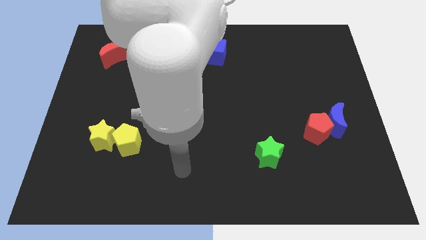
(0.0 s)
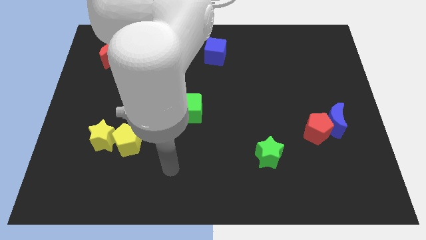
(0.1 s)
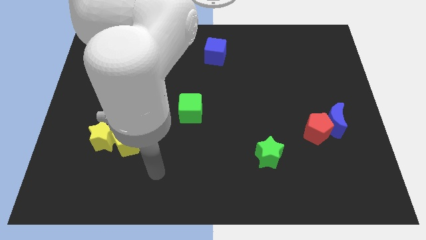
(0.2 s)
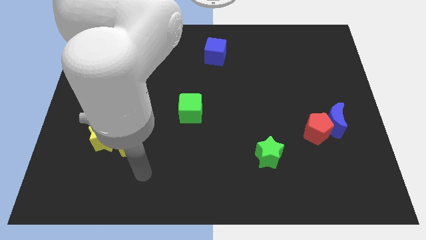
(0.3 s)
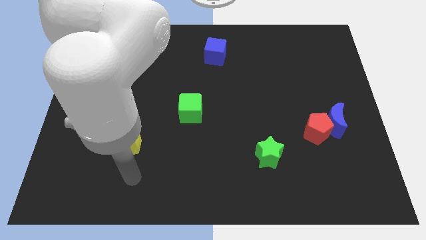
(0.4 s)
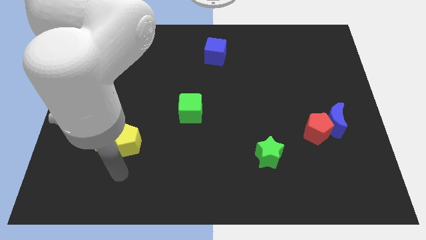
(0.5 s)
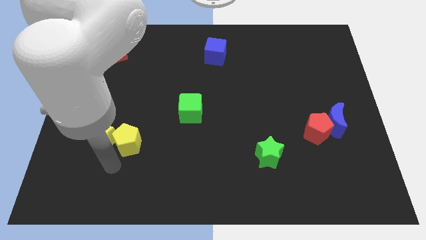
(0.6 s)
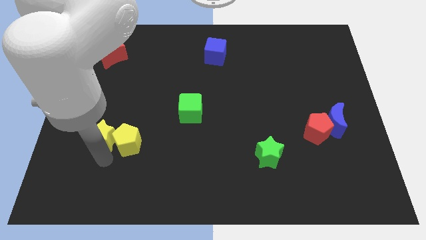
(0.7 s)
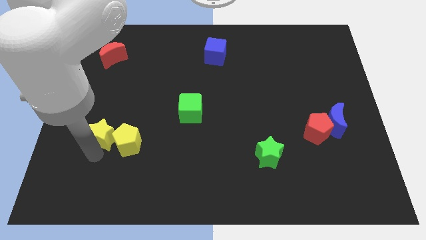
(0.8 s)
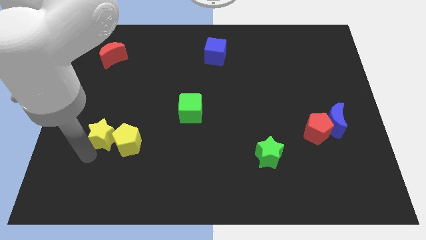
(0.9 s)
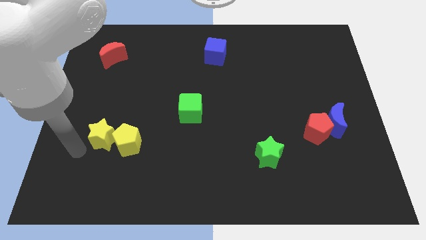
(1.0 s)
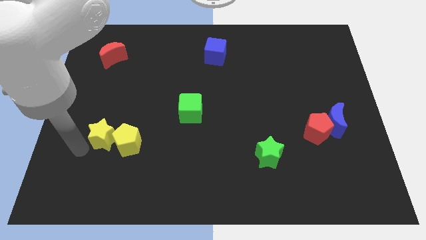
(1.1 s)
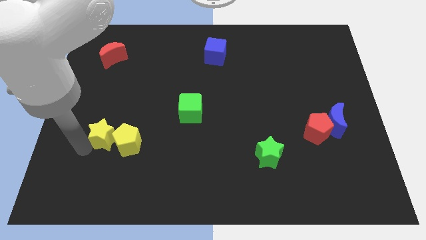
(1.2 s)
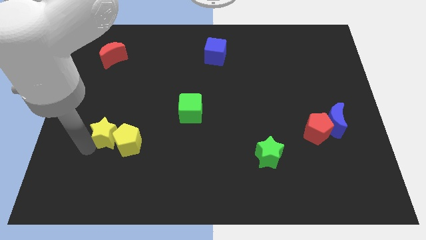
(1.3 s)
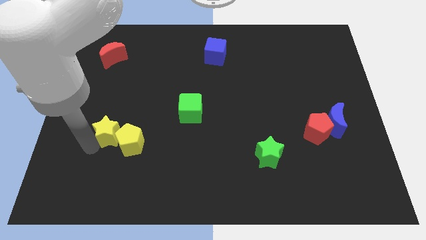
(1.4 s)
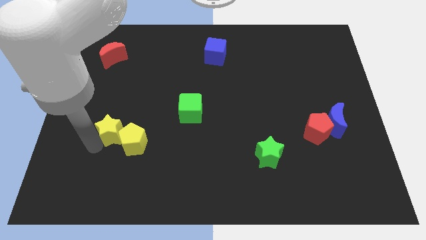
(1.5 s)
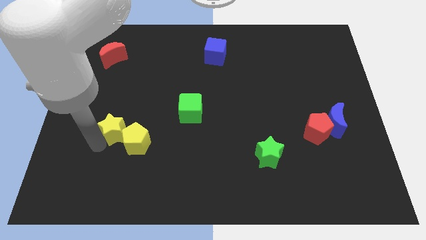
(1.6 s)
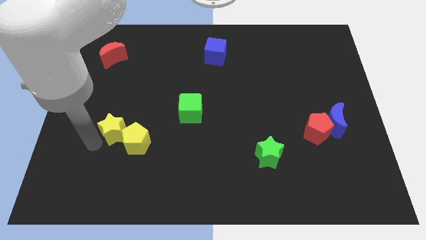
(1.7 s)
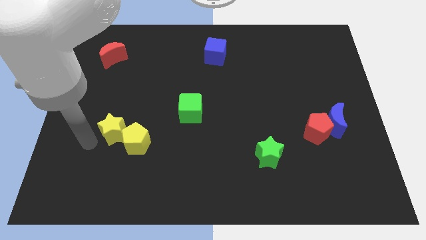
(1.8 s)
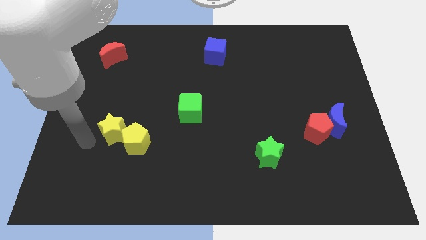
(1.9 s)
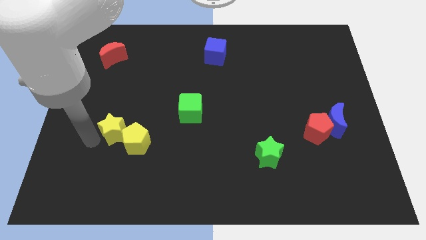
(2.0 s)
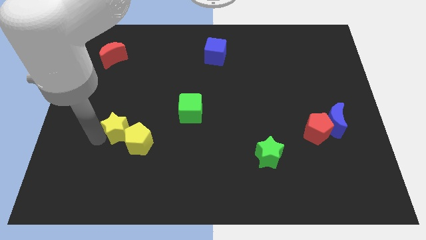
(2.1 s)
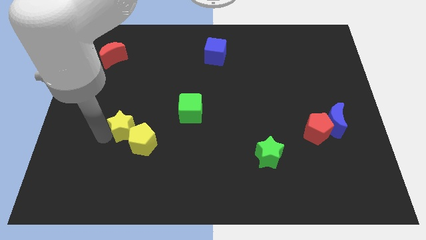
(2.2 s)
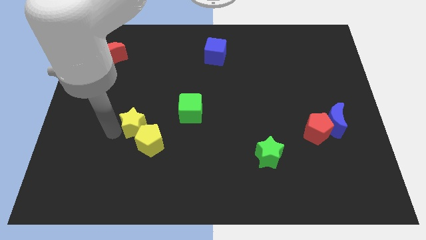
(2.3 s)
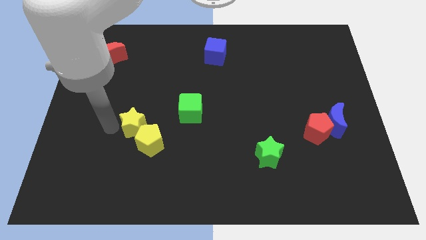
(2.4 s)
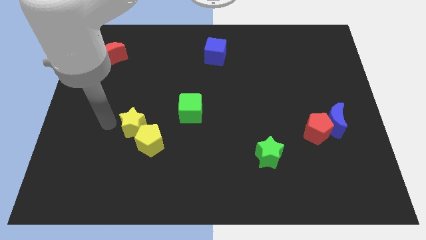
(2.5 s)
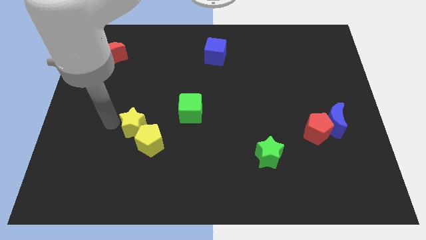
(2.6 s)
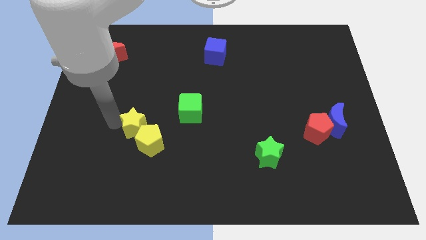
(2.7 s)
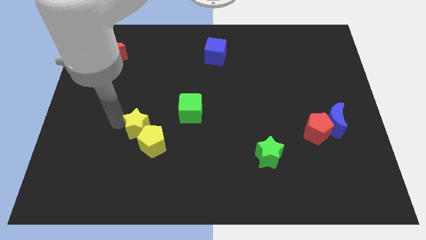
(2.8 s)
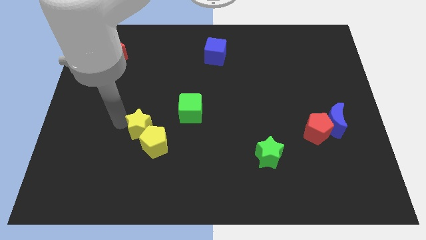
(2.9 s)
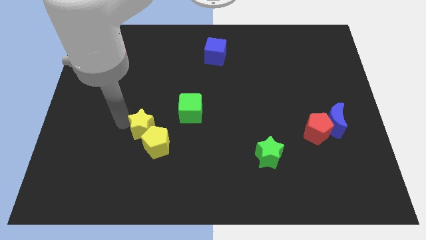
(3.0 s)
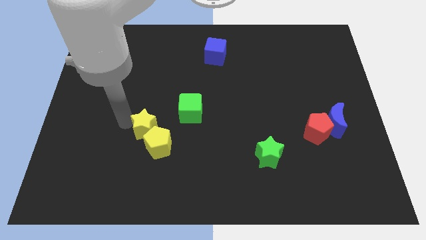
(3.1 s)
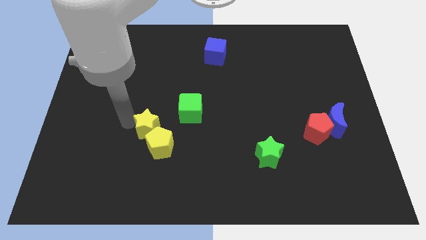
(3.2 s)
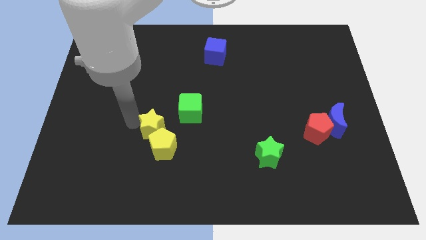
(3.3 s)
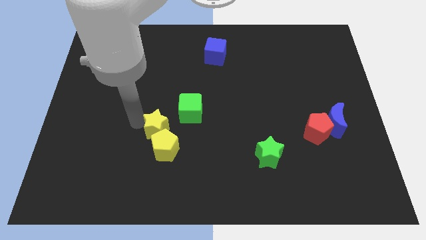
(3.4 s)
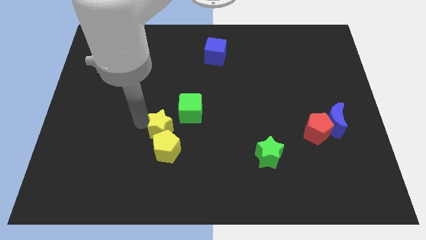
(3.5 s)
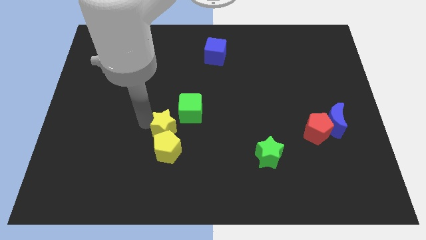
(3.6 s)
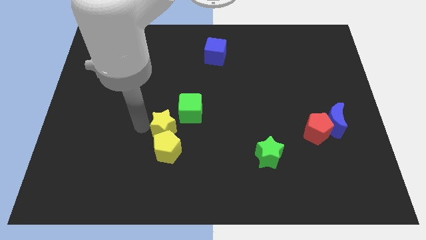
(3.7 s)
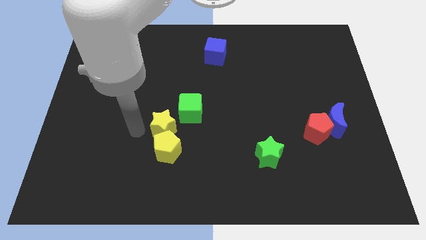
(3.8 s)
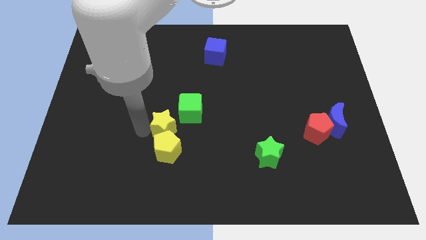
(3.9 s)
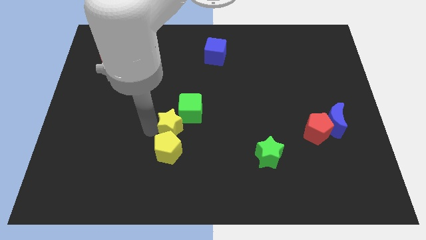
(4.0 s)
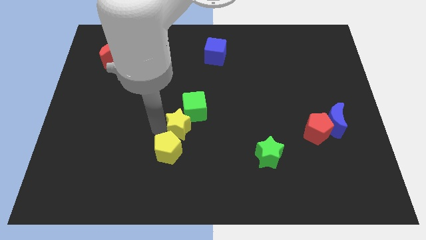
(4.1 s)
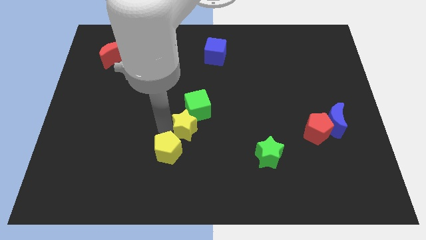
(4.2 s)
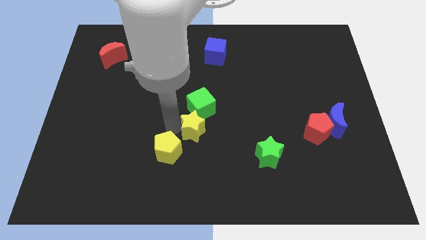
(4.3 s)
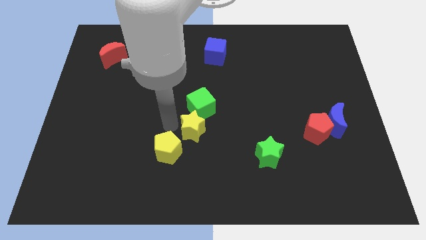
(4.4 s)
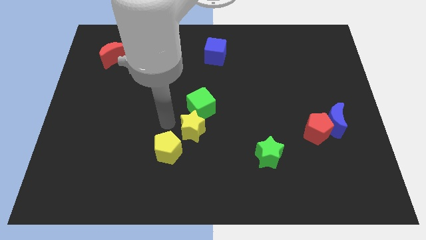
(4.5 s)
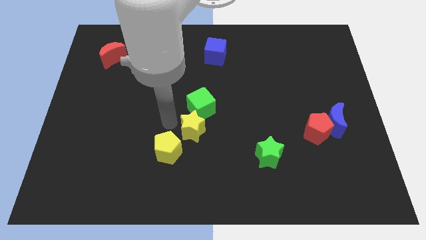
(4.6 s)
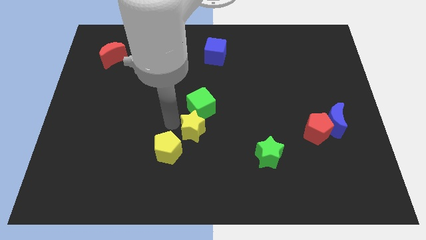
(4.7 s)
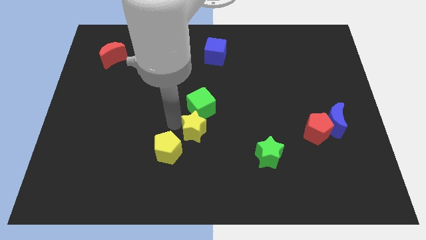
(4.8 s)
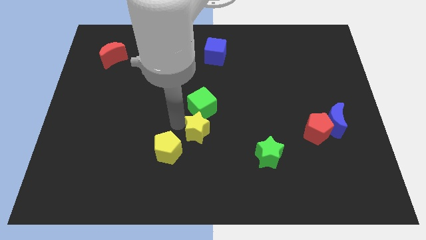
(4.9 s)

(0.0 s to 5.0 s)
move the yellow star right

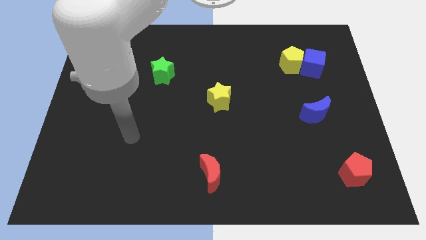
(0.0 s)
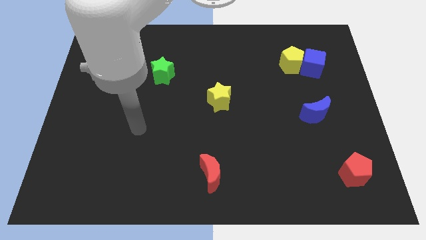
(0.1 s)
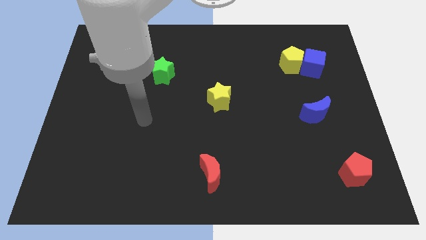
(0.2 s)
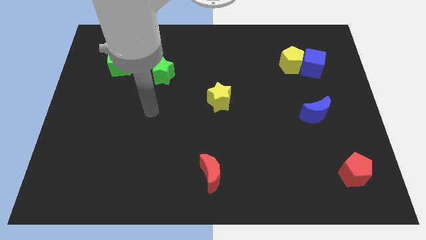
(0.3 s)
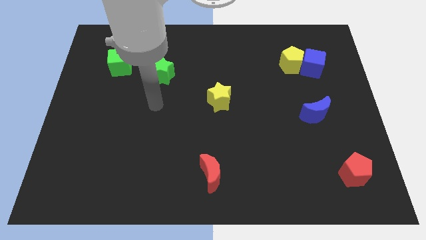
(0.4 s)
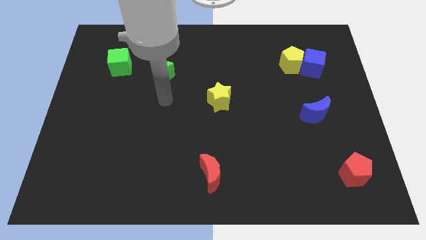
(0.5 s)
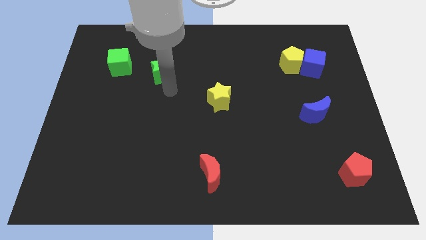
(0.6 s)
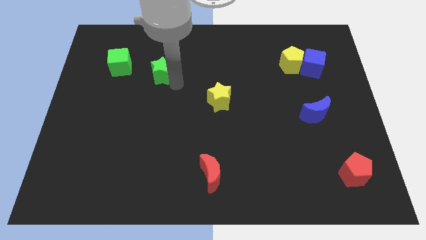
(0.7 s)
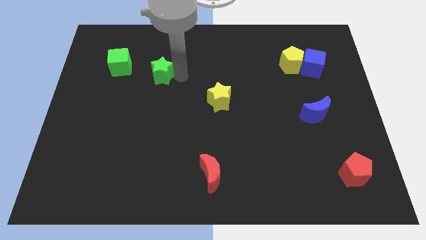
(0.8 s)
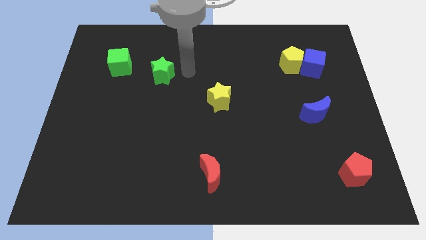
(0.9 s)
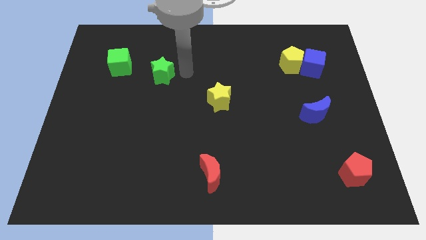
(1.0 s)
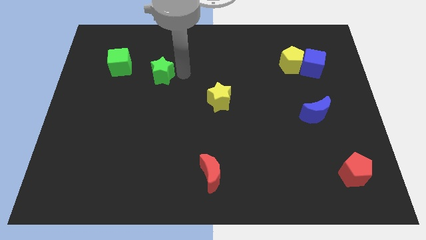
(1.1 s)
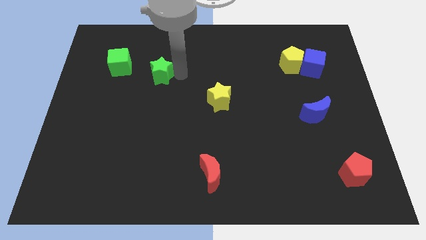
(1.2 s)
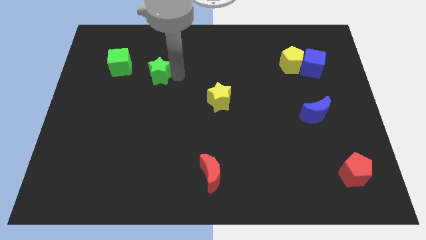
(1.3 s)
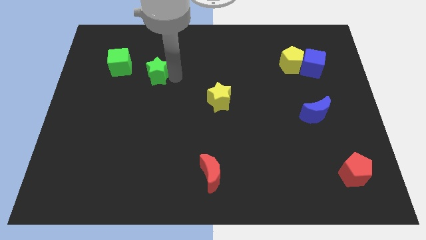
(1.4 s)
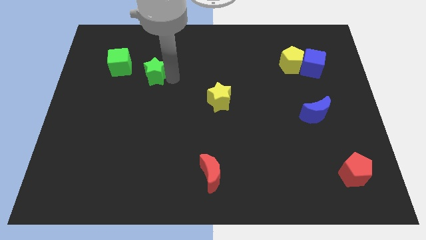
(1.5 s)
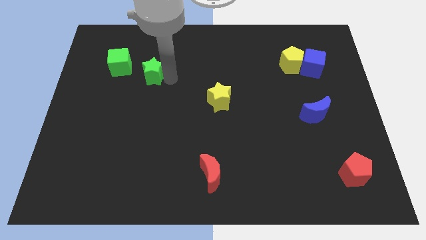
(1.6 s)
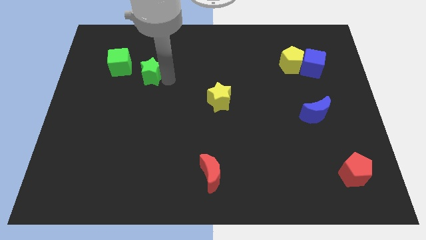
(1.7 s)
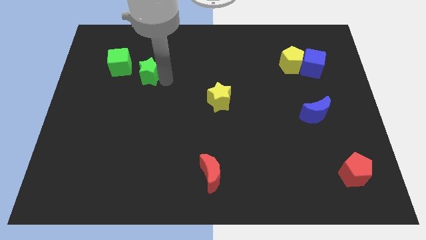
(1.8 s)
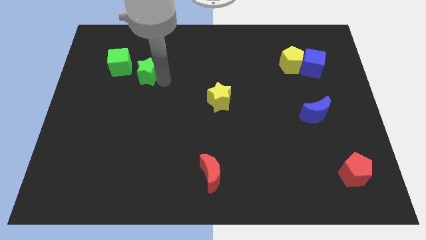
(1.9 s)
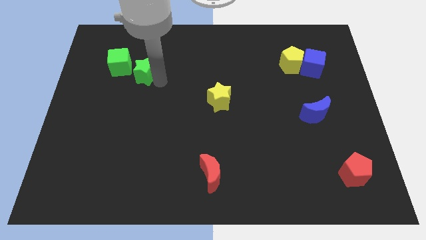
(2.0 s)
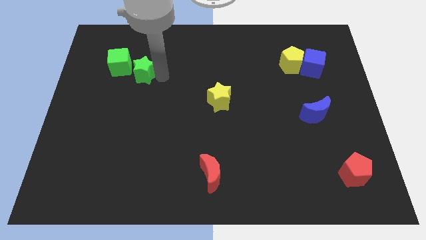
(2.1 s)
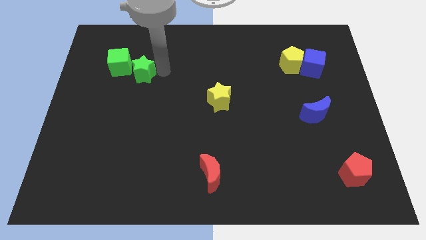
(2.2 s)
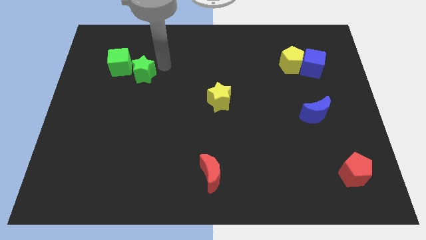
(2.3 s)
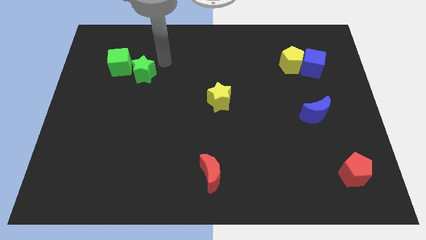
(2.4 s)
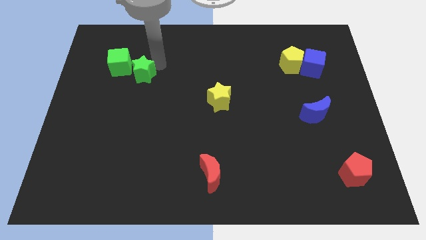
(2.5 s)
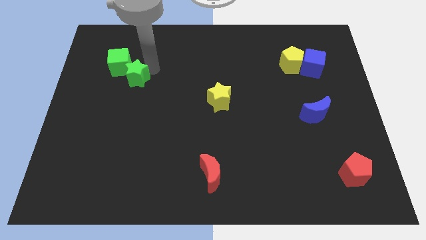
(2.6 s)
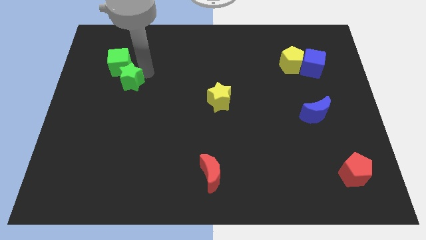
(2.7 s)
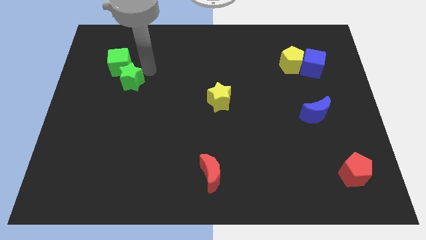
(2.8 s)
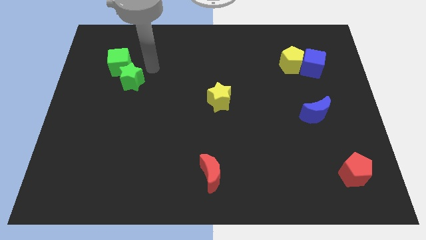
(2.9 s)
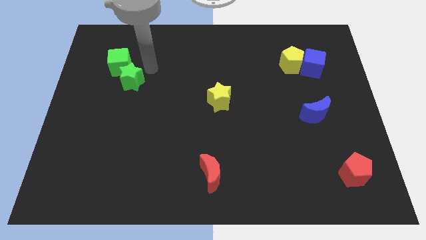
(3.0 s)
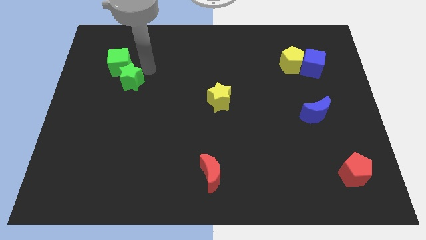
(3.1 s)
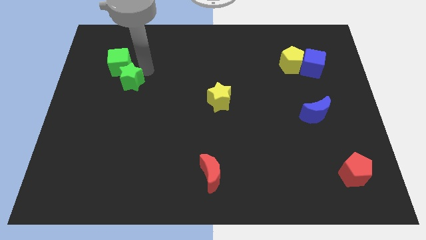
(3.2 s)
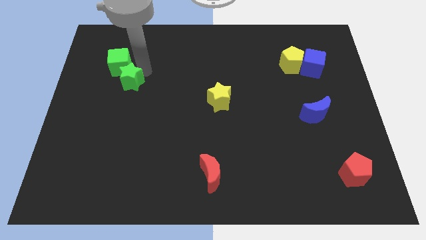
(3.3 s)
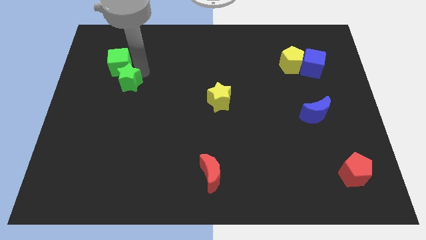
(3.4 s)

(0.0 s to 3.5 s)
slide the green star a little downwards and to the left diagonally

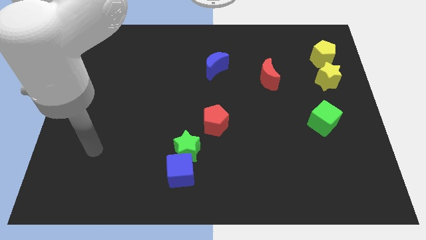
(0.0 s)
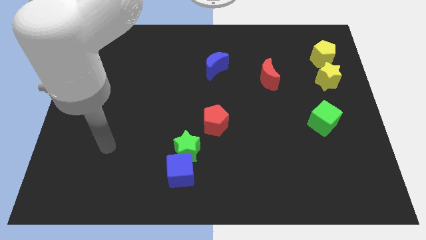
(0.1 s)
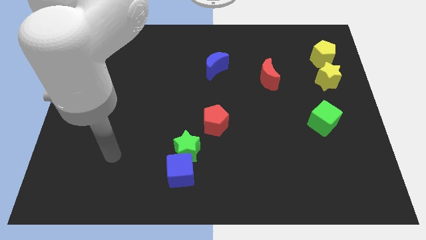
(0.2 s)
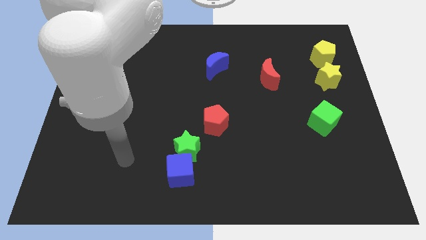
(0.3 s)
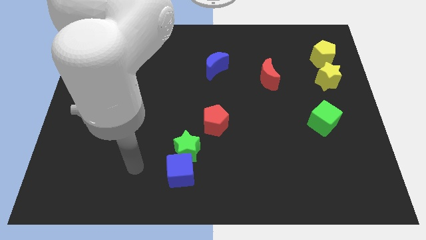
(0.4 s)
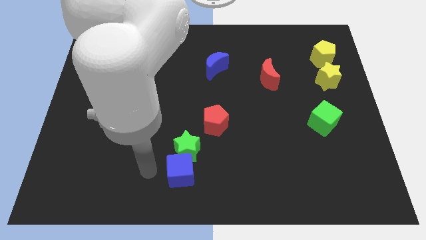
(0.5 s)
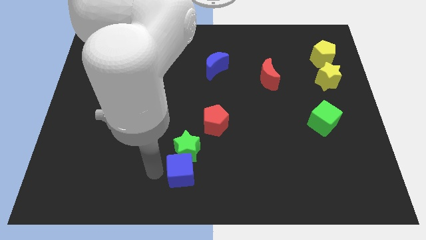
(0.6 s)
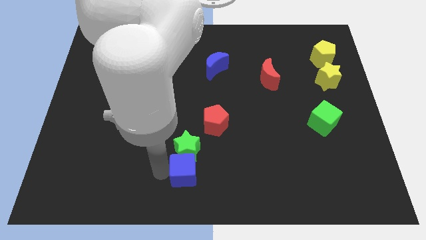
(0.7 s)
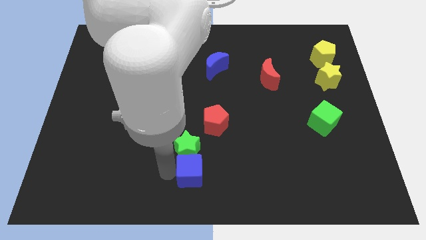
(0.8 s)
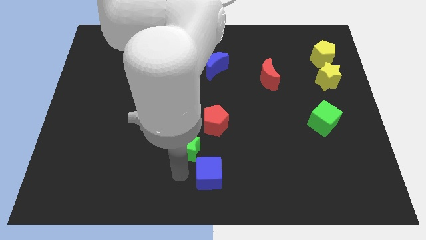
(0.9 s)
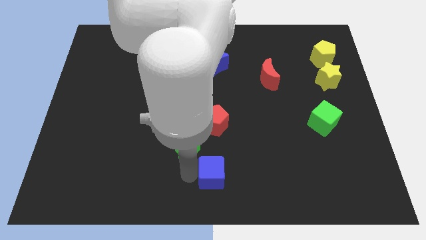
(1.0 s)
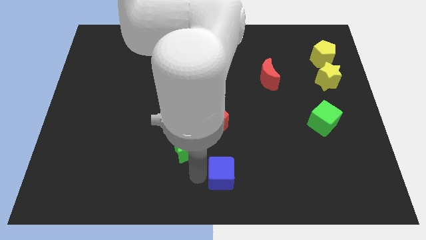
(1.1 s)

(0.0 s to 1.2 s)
slightly push the blue cube right
